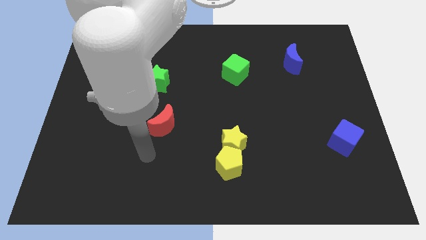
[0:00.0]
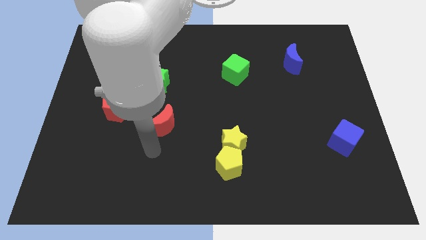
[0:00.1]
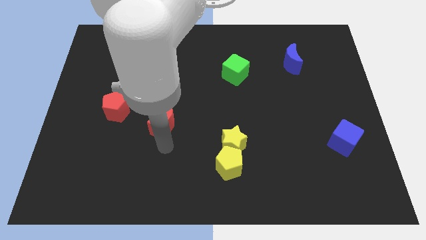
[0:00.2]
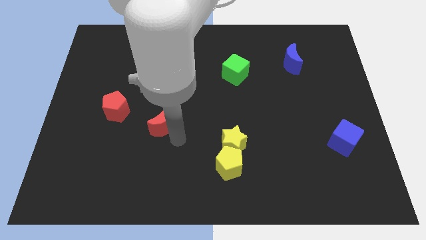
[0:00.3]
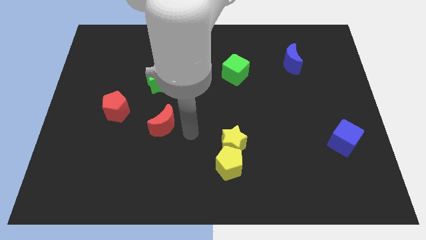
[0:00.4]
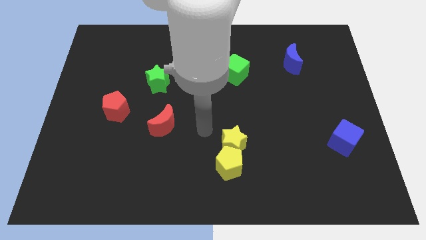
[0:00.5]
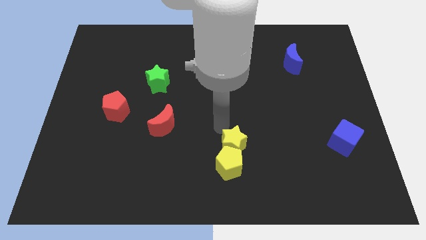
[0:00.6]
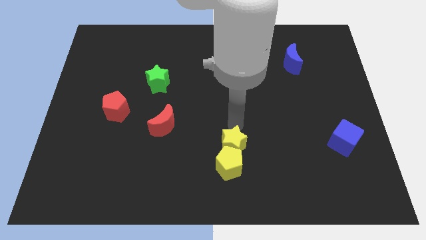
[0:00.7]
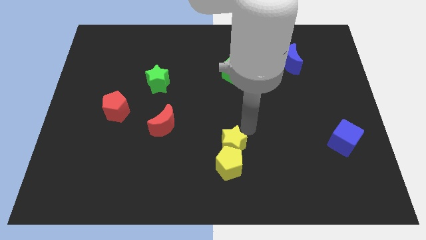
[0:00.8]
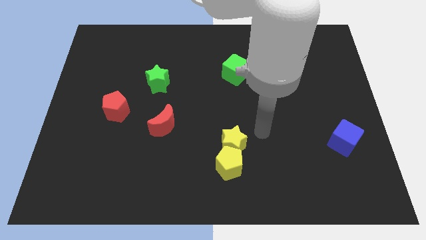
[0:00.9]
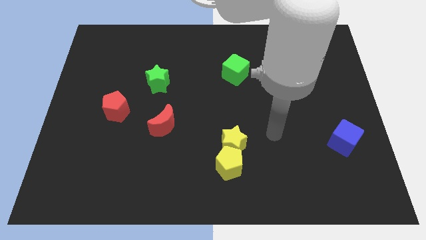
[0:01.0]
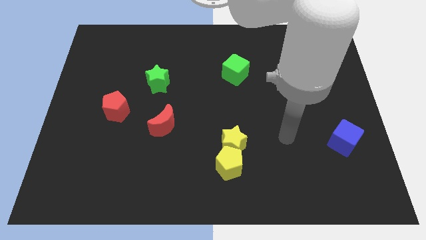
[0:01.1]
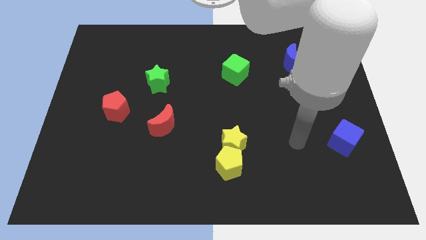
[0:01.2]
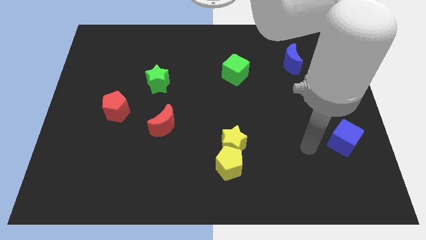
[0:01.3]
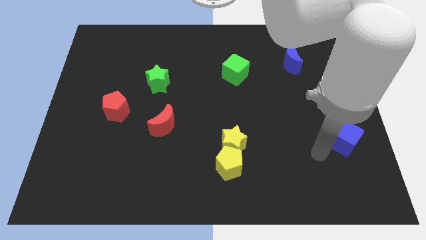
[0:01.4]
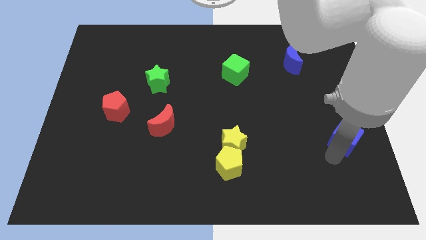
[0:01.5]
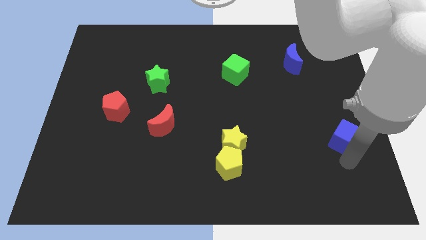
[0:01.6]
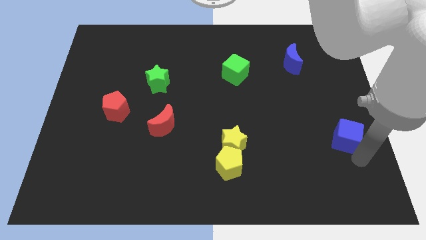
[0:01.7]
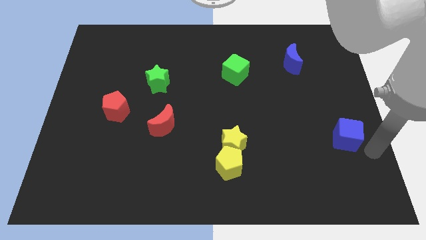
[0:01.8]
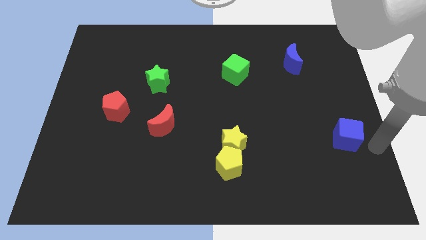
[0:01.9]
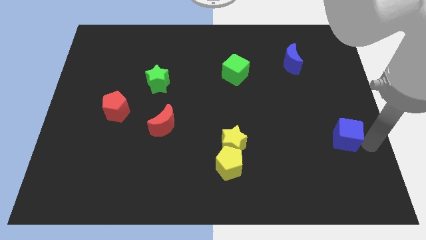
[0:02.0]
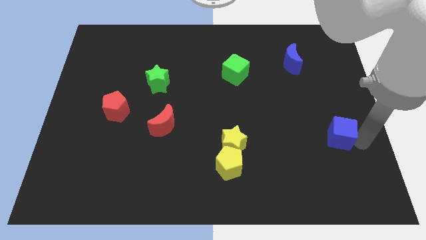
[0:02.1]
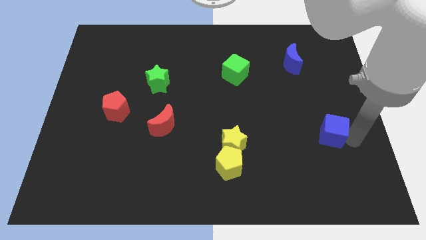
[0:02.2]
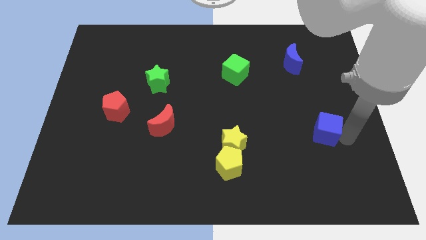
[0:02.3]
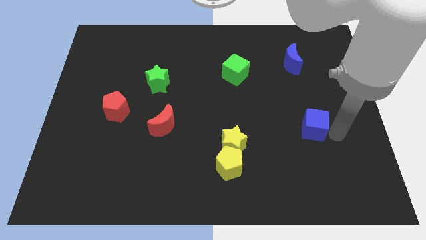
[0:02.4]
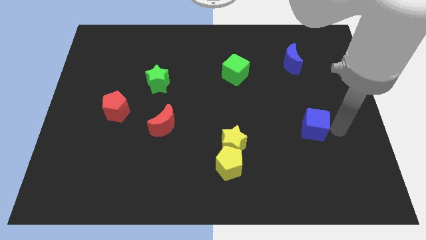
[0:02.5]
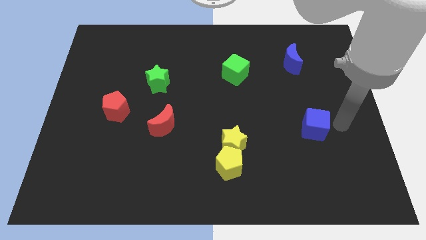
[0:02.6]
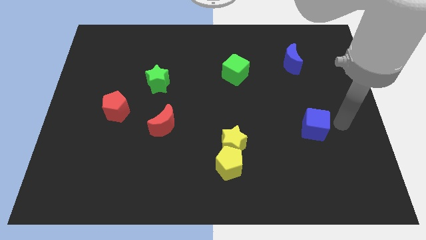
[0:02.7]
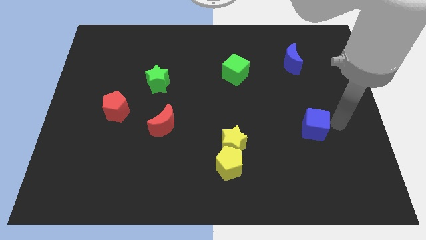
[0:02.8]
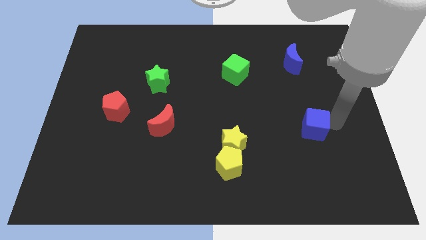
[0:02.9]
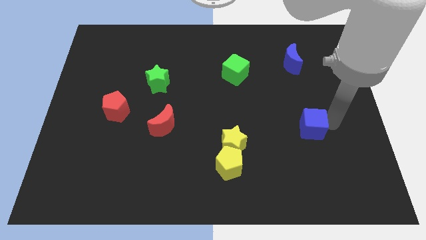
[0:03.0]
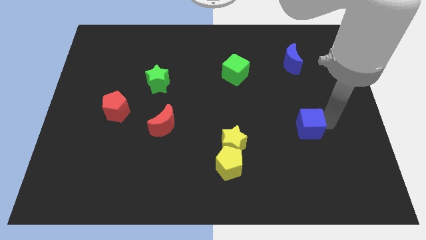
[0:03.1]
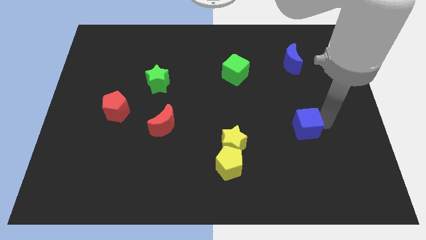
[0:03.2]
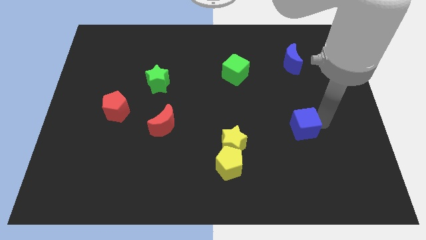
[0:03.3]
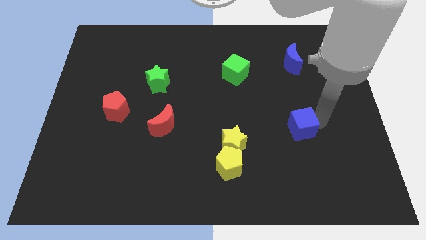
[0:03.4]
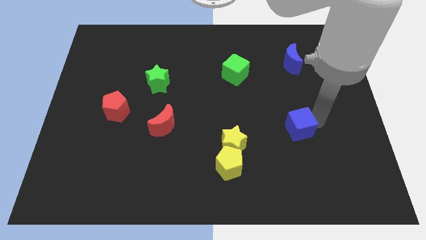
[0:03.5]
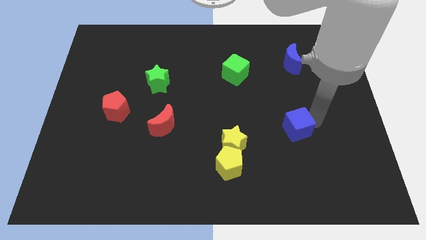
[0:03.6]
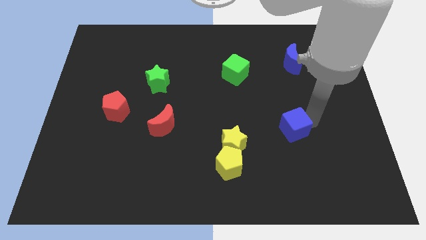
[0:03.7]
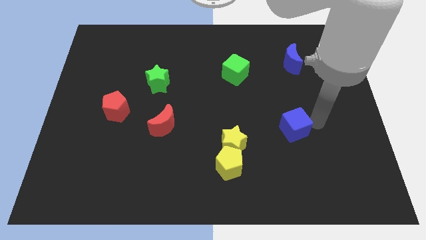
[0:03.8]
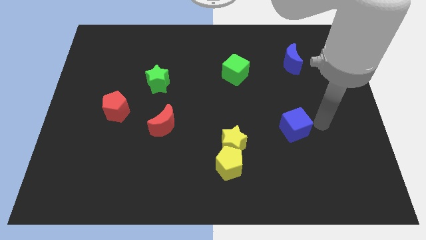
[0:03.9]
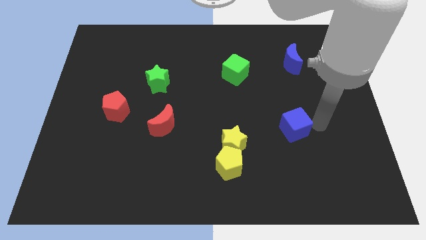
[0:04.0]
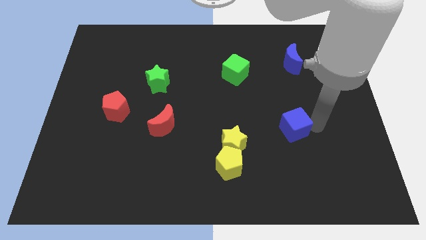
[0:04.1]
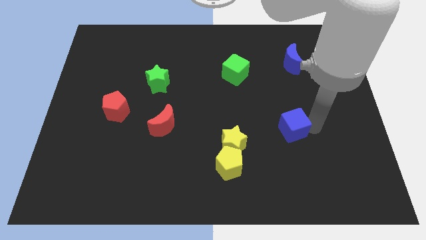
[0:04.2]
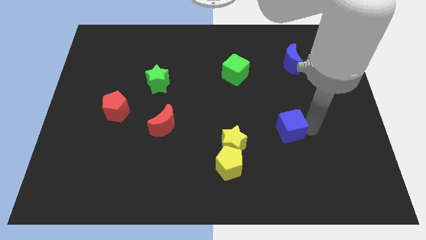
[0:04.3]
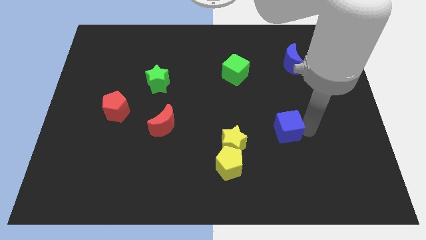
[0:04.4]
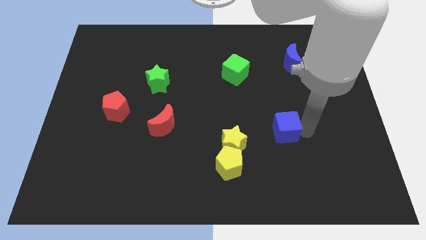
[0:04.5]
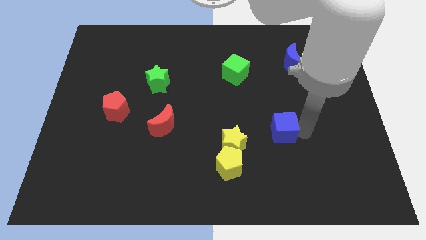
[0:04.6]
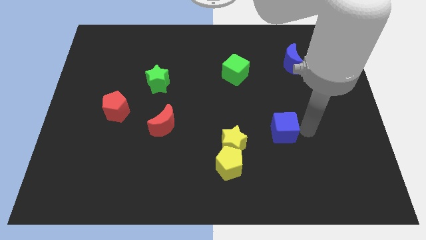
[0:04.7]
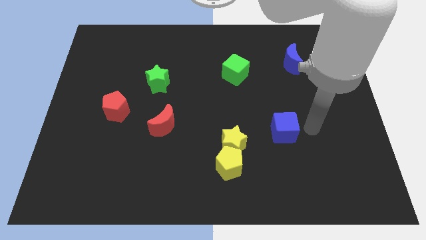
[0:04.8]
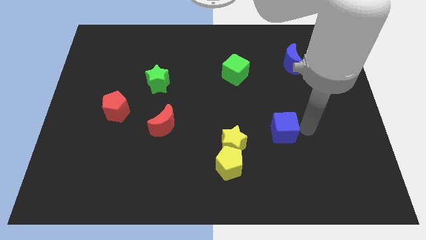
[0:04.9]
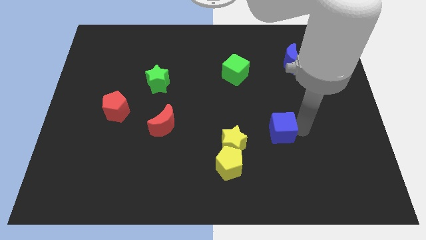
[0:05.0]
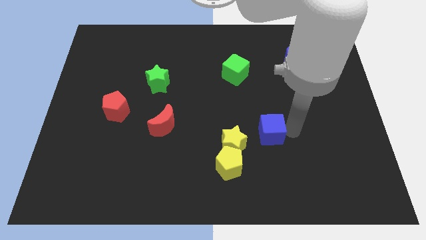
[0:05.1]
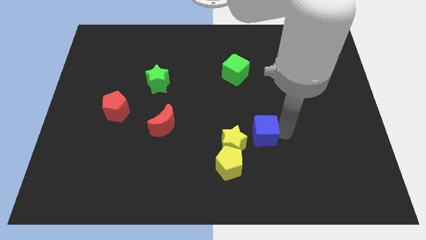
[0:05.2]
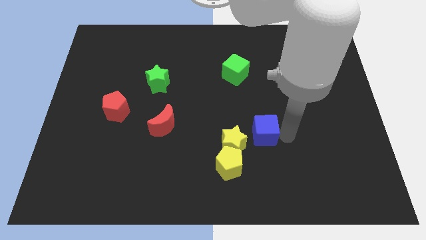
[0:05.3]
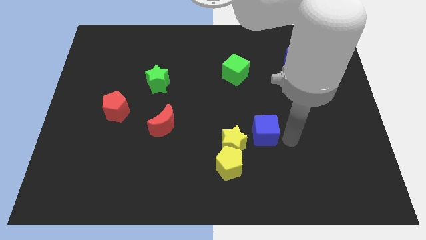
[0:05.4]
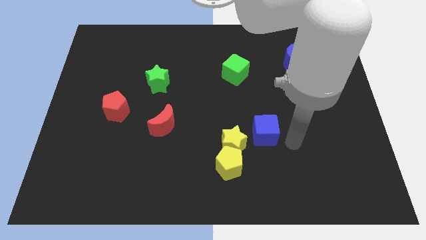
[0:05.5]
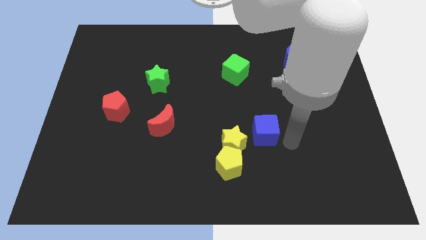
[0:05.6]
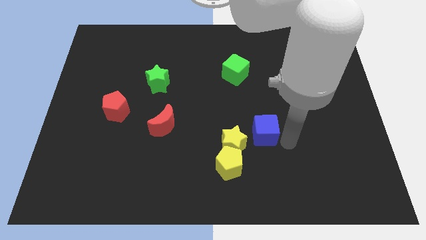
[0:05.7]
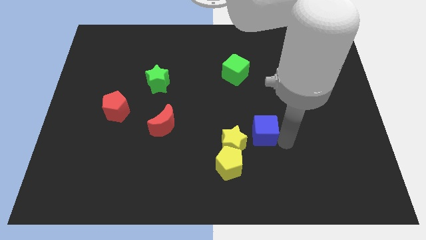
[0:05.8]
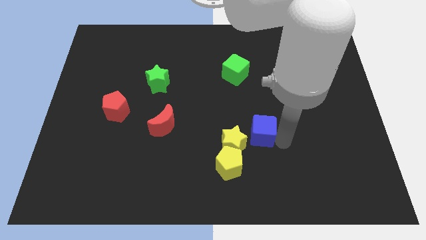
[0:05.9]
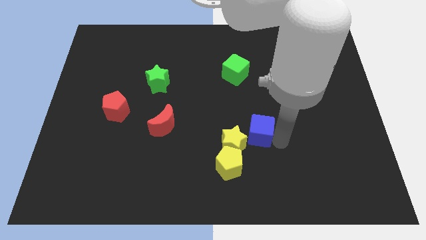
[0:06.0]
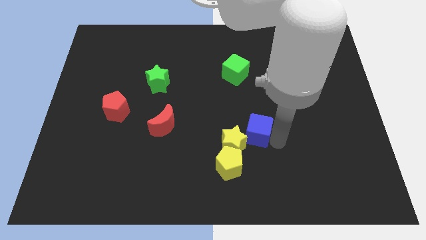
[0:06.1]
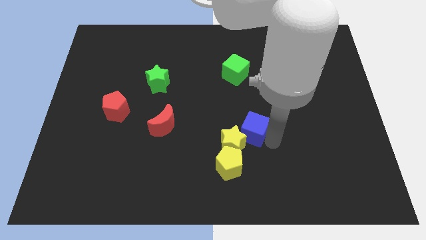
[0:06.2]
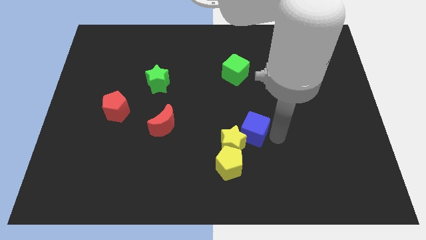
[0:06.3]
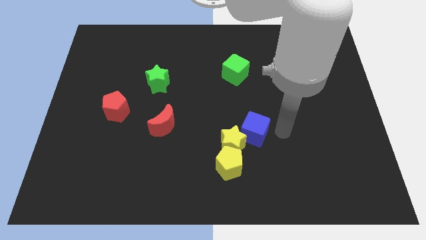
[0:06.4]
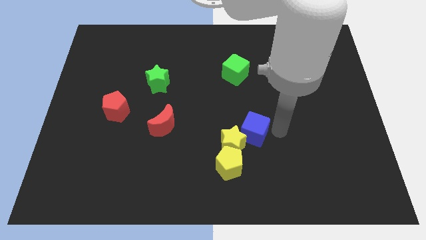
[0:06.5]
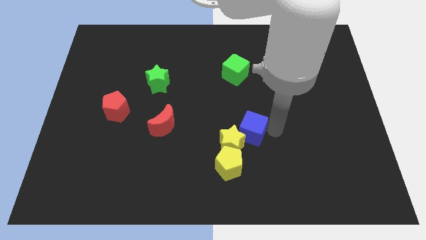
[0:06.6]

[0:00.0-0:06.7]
push the blue cube left

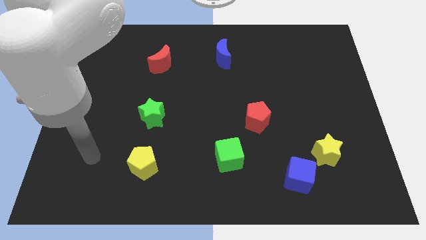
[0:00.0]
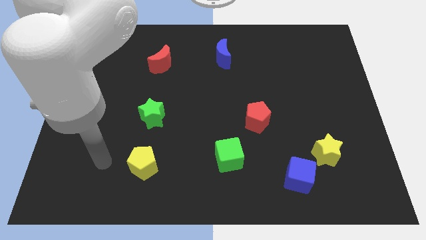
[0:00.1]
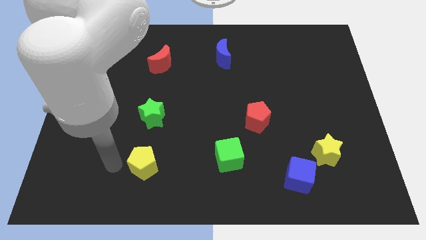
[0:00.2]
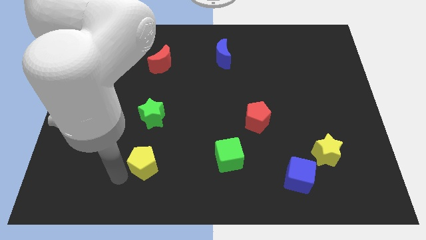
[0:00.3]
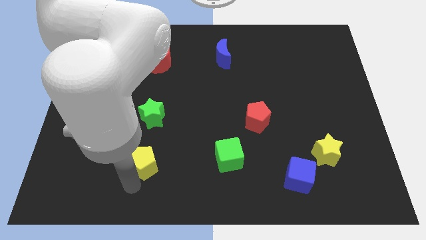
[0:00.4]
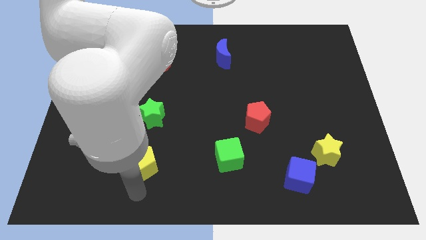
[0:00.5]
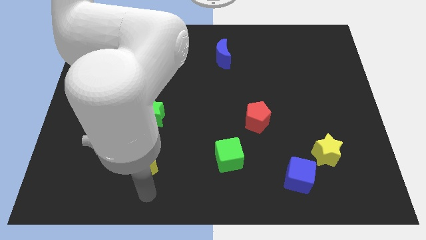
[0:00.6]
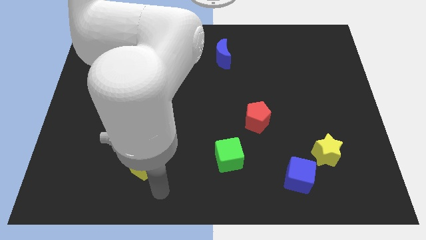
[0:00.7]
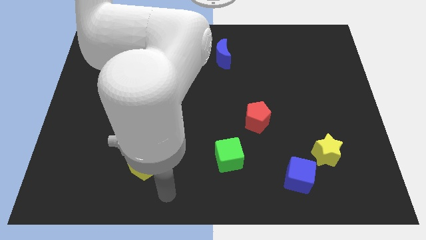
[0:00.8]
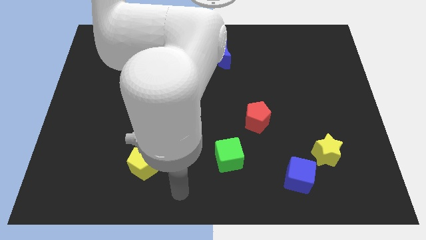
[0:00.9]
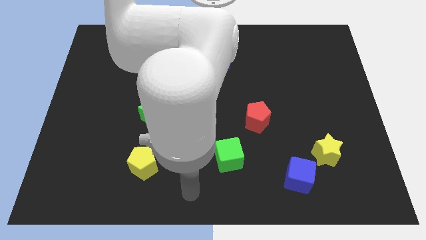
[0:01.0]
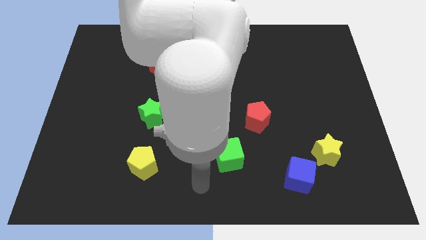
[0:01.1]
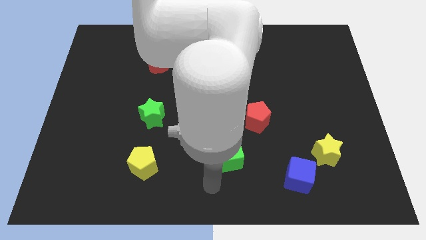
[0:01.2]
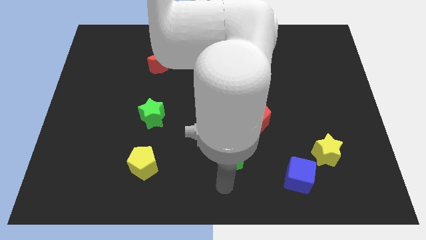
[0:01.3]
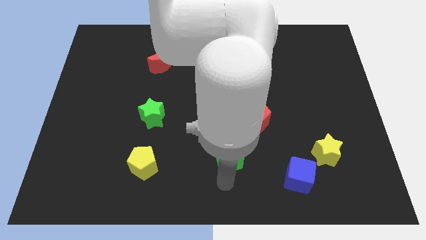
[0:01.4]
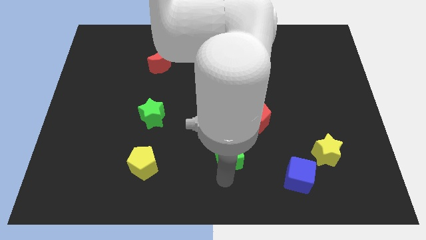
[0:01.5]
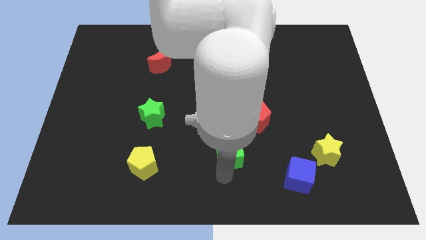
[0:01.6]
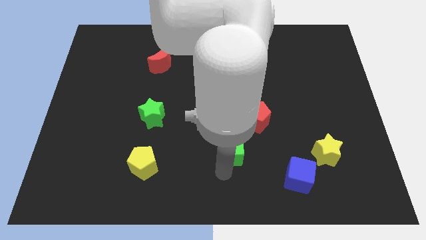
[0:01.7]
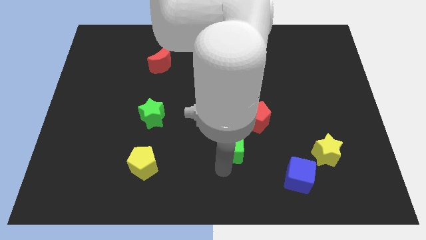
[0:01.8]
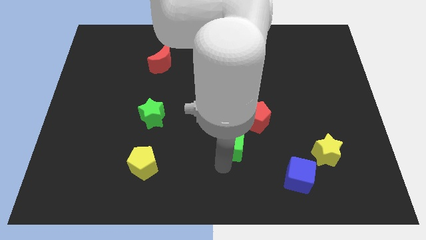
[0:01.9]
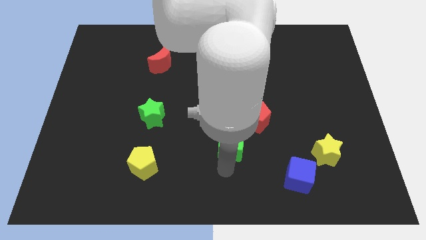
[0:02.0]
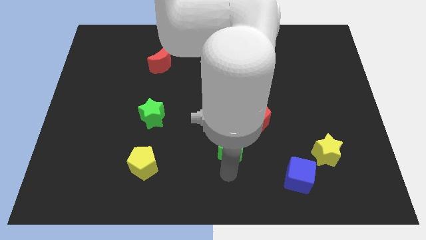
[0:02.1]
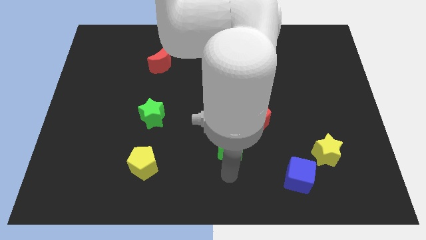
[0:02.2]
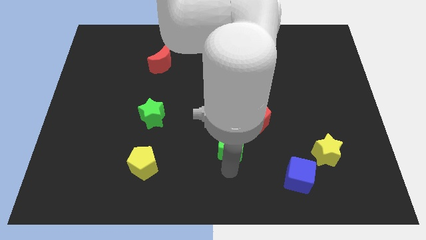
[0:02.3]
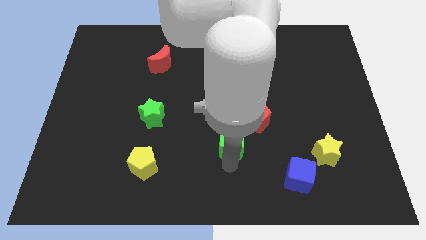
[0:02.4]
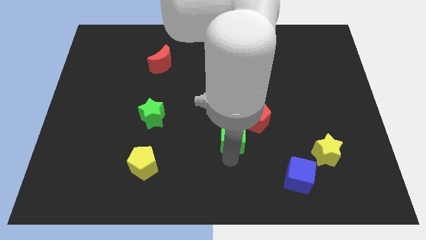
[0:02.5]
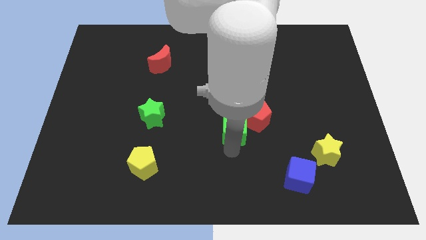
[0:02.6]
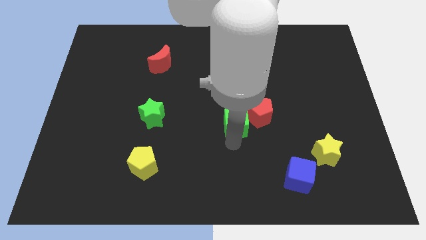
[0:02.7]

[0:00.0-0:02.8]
move the green cube upwards a little
